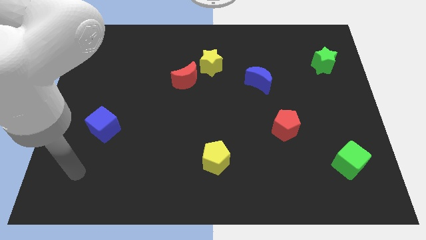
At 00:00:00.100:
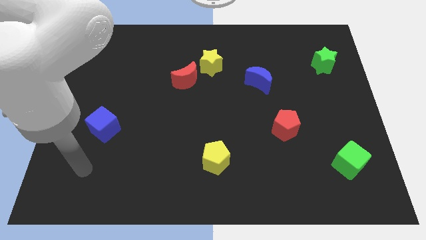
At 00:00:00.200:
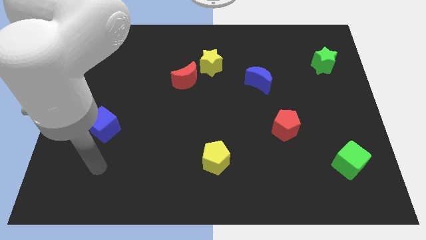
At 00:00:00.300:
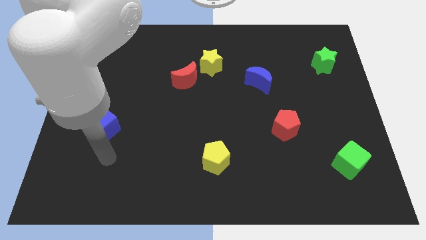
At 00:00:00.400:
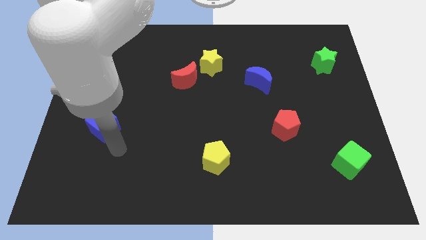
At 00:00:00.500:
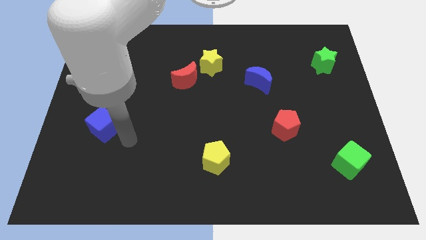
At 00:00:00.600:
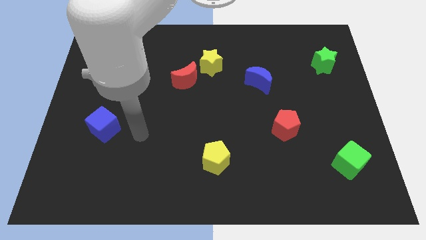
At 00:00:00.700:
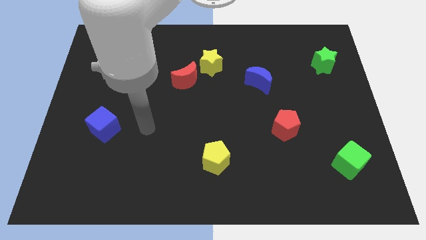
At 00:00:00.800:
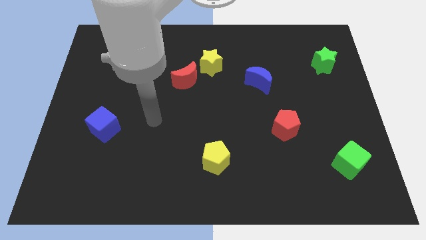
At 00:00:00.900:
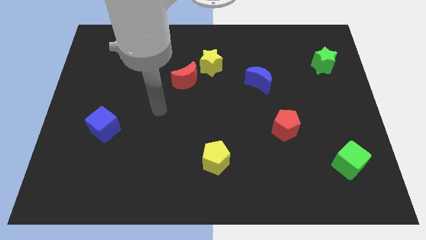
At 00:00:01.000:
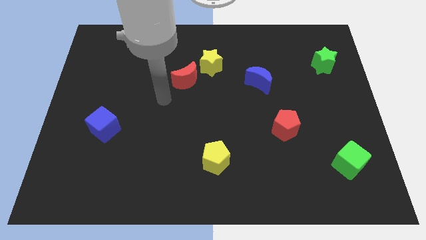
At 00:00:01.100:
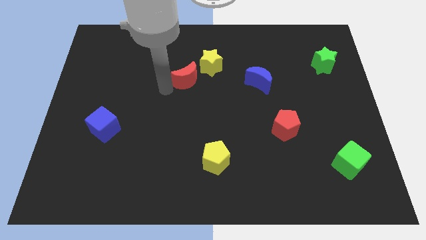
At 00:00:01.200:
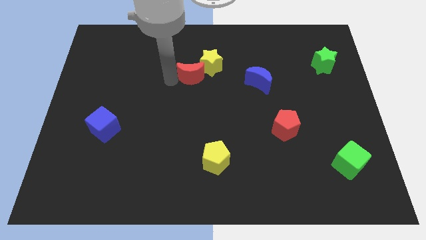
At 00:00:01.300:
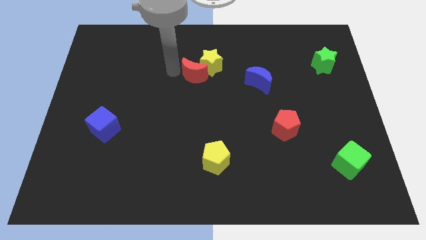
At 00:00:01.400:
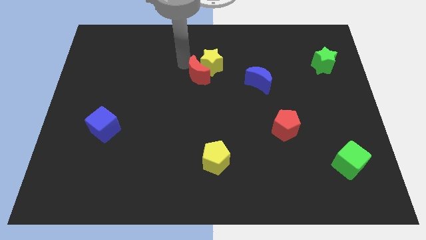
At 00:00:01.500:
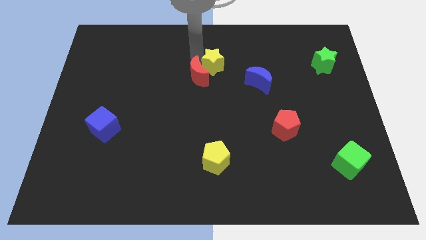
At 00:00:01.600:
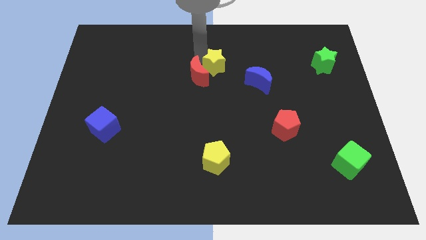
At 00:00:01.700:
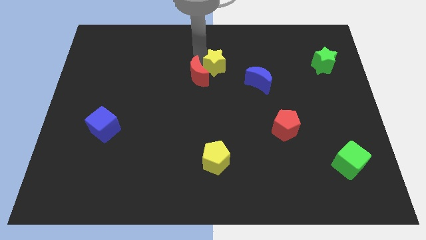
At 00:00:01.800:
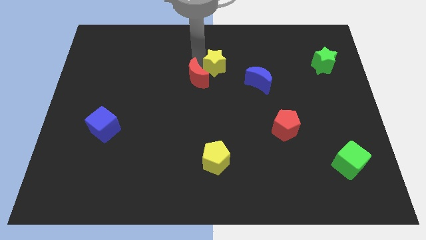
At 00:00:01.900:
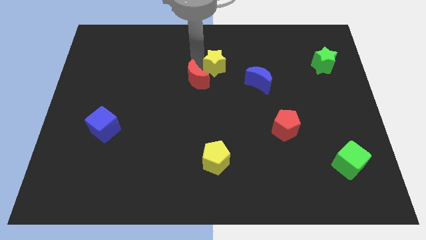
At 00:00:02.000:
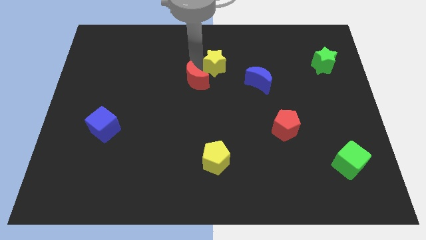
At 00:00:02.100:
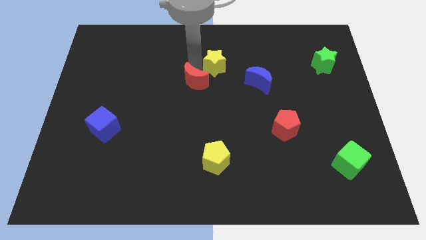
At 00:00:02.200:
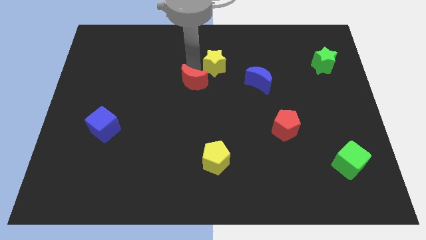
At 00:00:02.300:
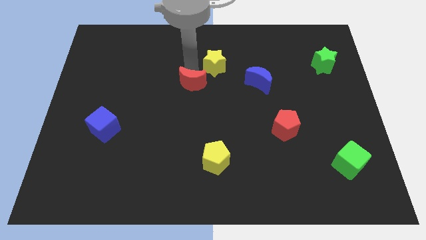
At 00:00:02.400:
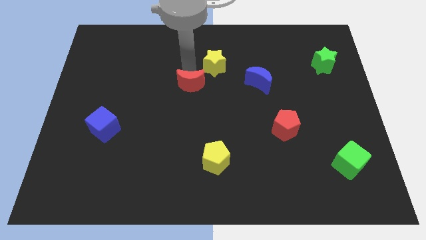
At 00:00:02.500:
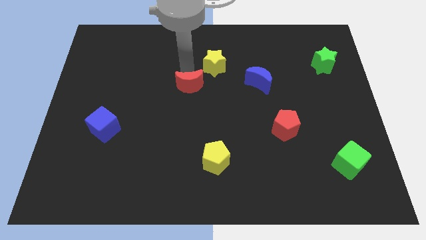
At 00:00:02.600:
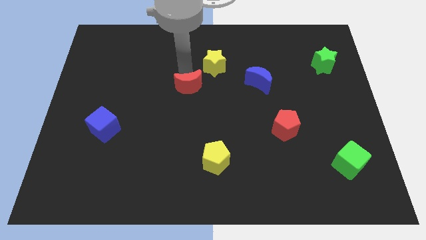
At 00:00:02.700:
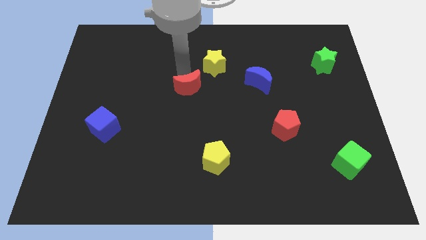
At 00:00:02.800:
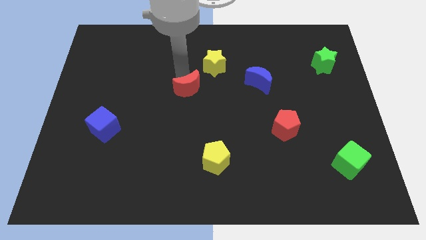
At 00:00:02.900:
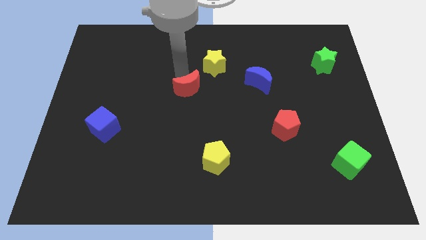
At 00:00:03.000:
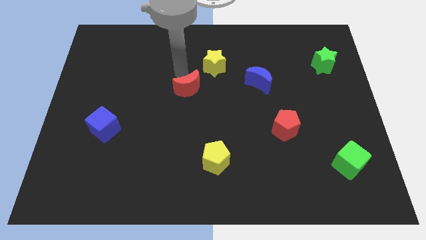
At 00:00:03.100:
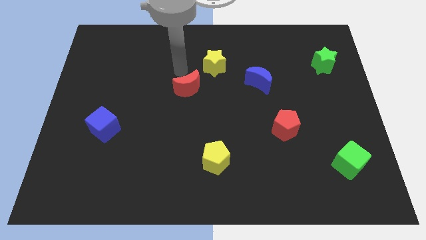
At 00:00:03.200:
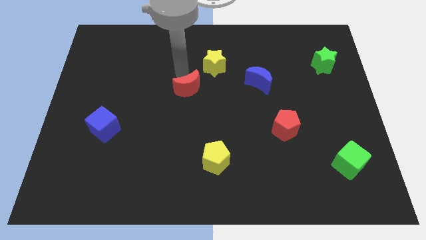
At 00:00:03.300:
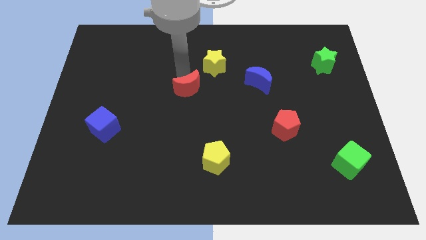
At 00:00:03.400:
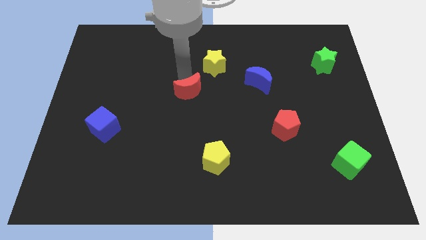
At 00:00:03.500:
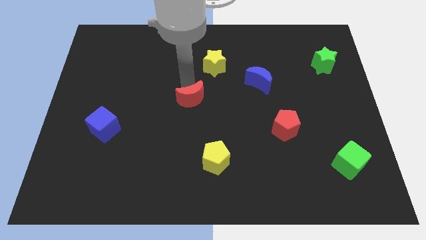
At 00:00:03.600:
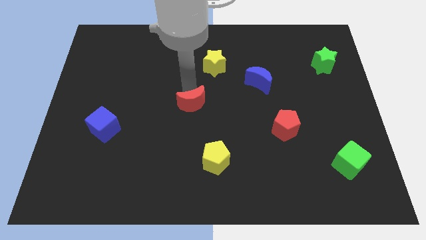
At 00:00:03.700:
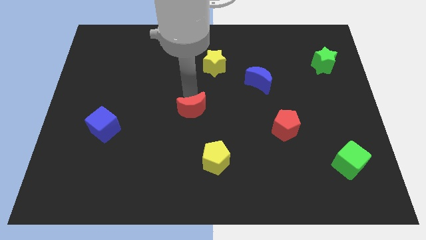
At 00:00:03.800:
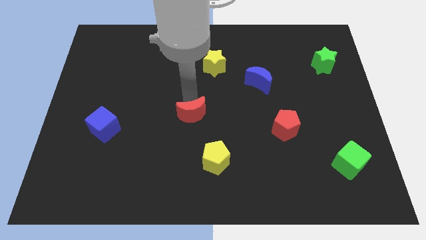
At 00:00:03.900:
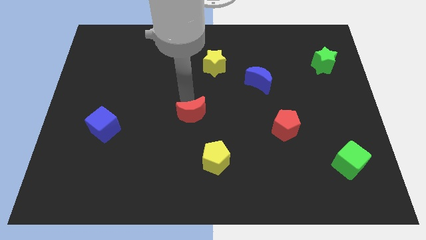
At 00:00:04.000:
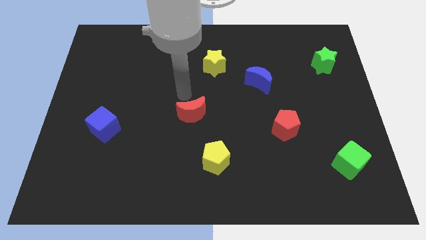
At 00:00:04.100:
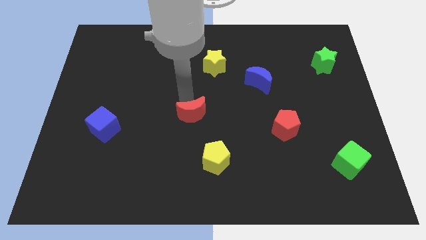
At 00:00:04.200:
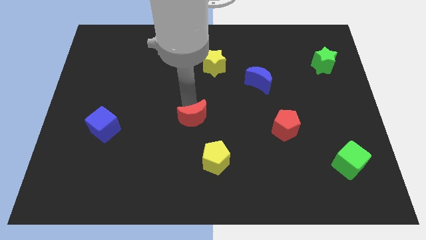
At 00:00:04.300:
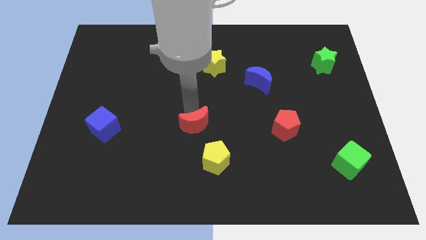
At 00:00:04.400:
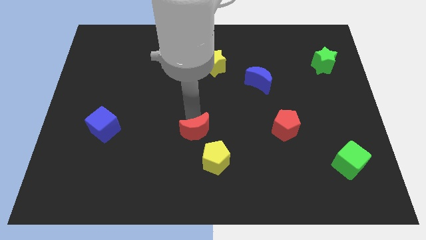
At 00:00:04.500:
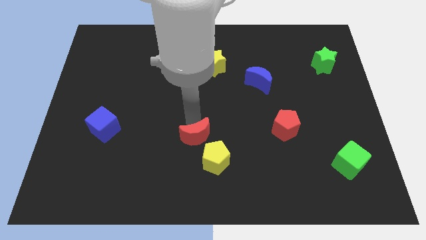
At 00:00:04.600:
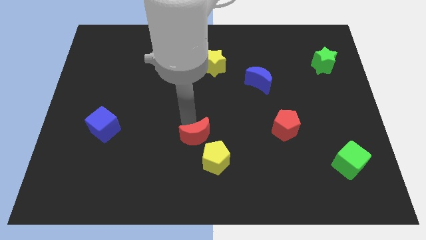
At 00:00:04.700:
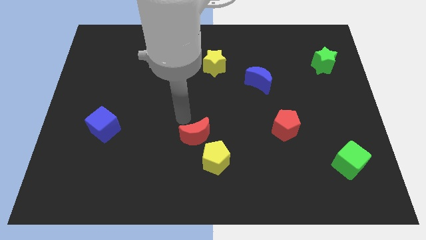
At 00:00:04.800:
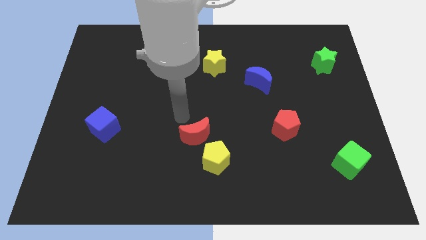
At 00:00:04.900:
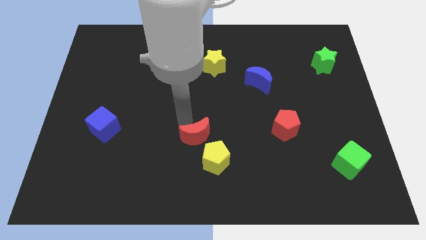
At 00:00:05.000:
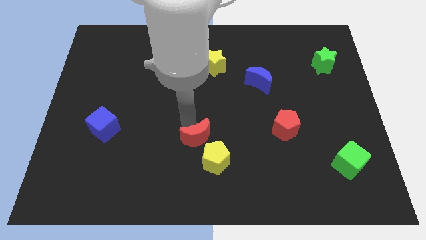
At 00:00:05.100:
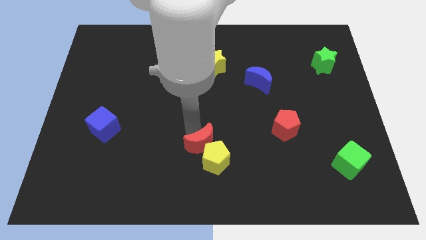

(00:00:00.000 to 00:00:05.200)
push the red moon close to the yellow pentagon

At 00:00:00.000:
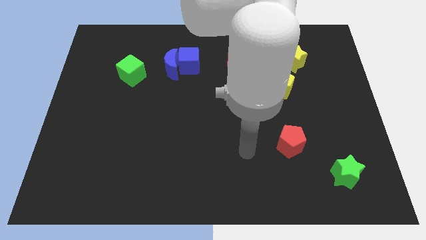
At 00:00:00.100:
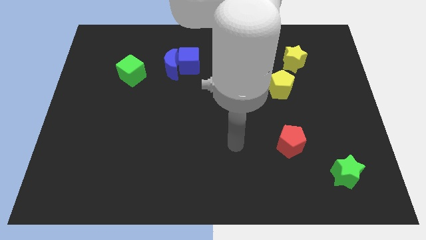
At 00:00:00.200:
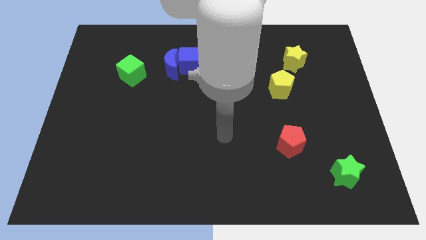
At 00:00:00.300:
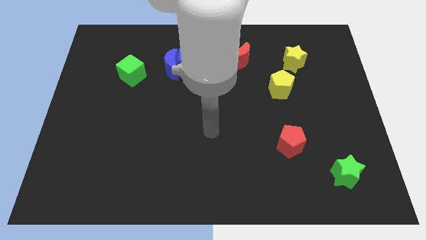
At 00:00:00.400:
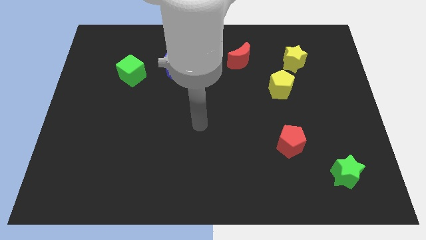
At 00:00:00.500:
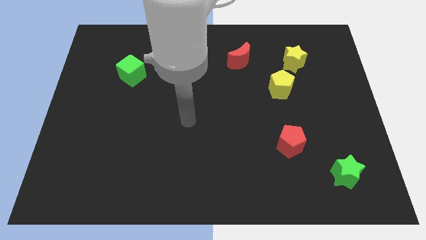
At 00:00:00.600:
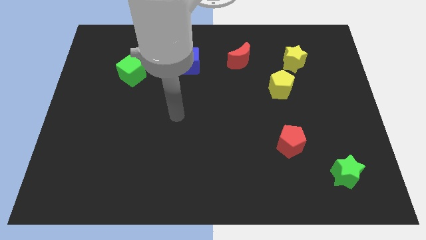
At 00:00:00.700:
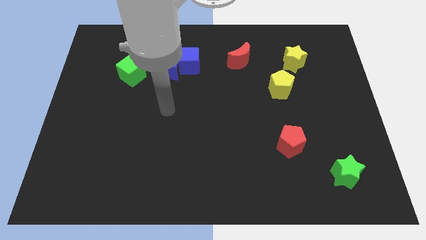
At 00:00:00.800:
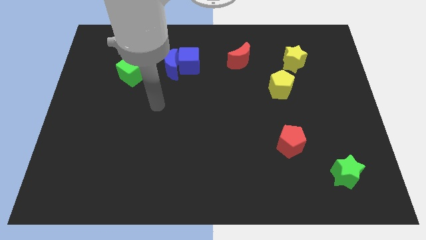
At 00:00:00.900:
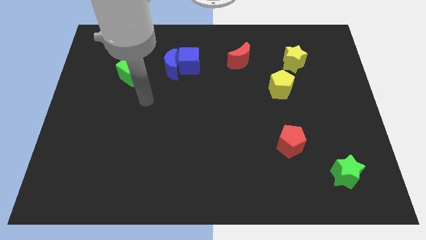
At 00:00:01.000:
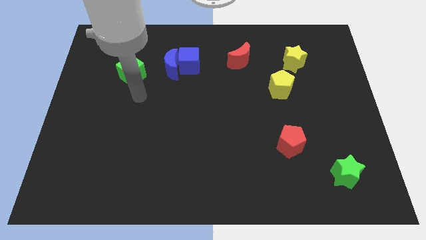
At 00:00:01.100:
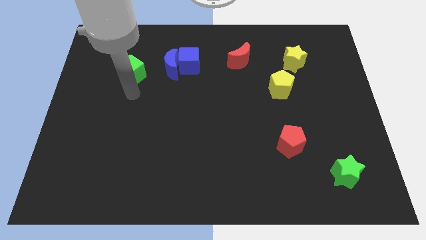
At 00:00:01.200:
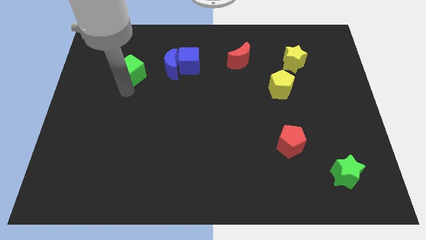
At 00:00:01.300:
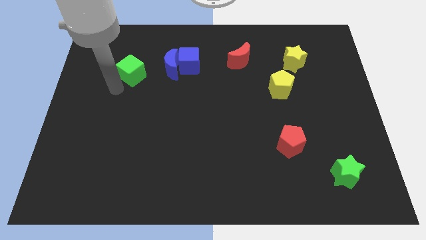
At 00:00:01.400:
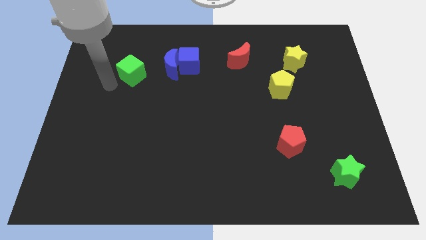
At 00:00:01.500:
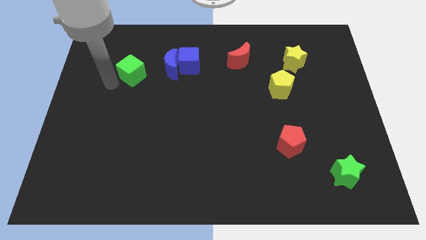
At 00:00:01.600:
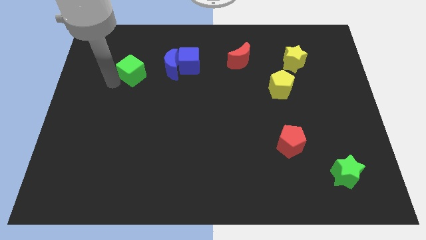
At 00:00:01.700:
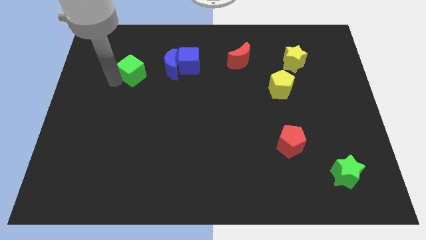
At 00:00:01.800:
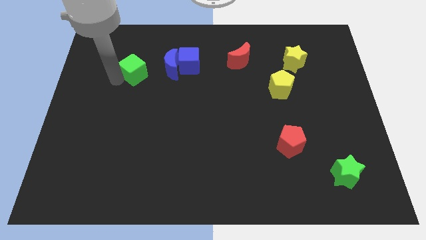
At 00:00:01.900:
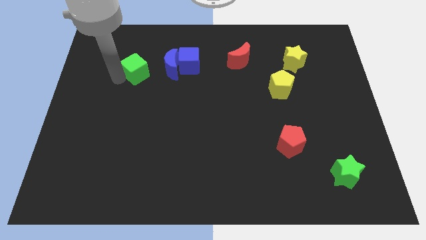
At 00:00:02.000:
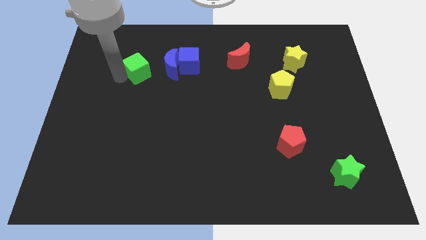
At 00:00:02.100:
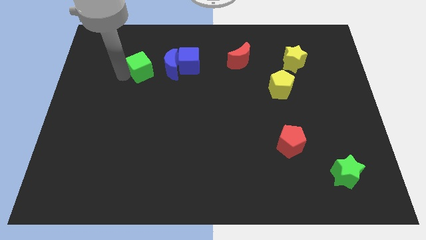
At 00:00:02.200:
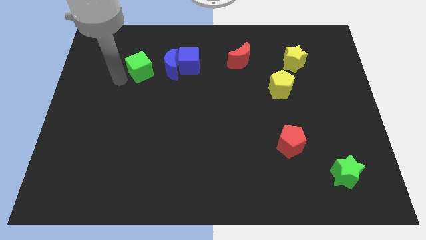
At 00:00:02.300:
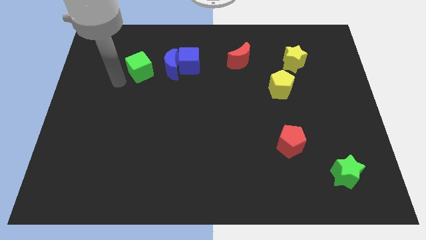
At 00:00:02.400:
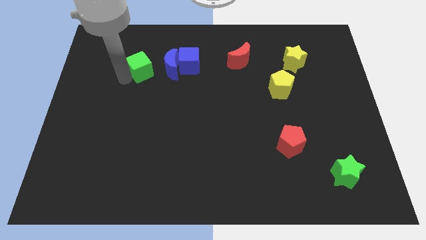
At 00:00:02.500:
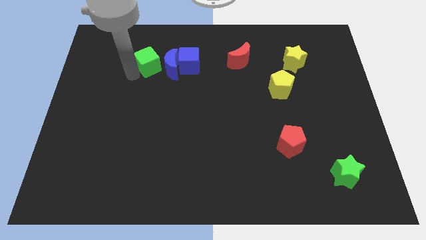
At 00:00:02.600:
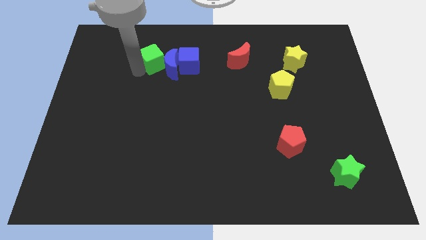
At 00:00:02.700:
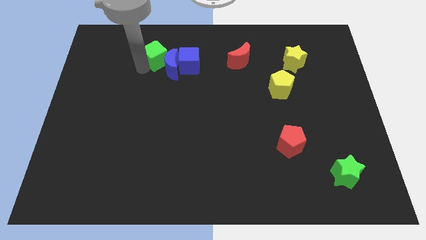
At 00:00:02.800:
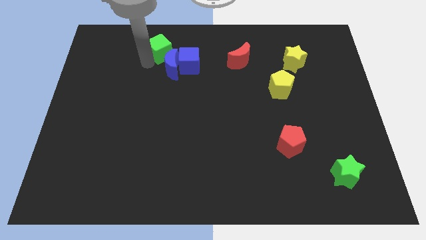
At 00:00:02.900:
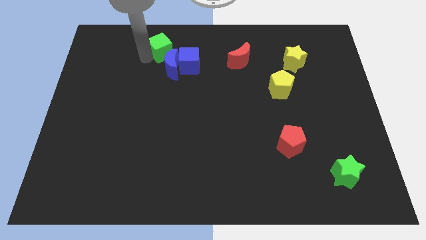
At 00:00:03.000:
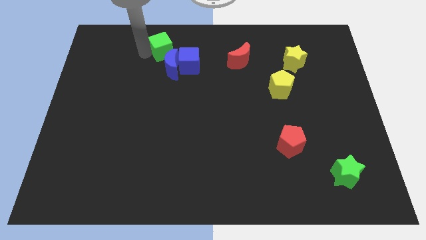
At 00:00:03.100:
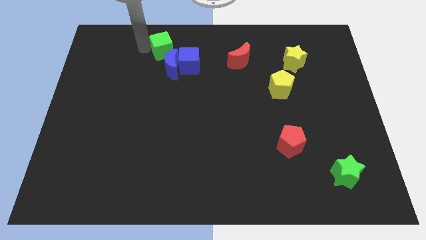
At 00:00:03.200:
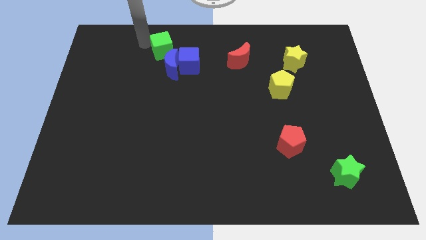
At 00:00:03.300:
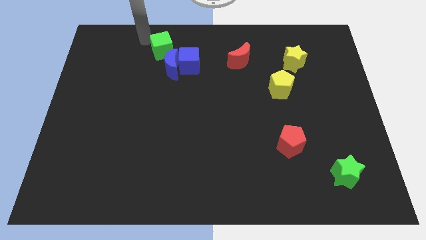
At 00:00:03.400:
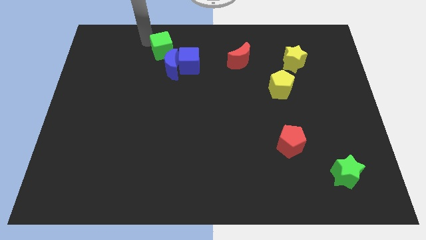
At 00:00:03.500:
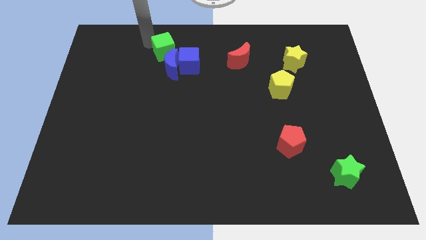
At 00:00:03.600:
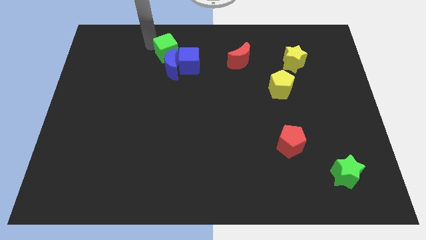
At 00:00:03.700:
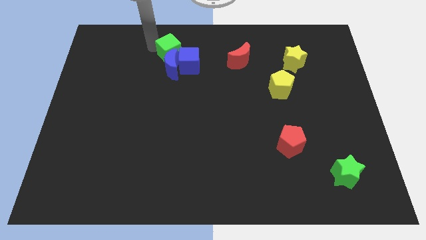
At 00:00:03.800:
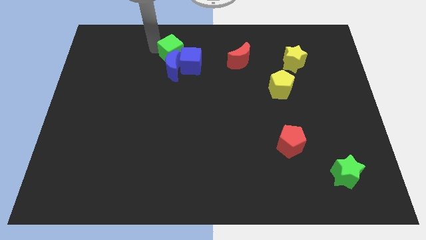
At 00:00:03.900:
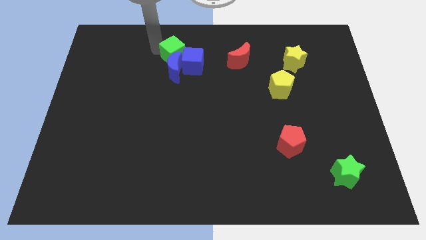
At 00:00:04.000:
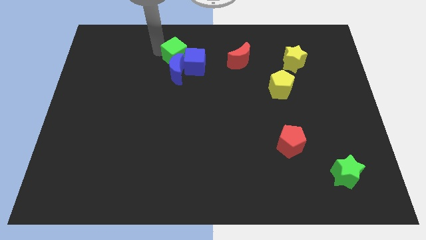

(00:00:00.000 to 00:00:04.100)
move the green cube to the blue cube
